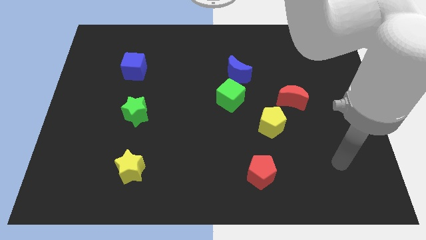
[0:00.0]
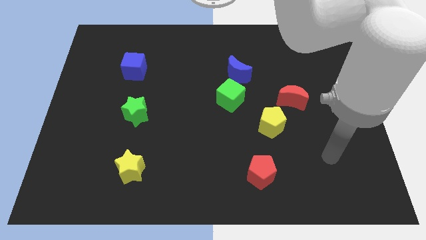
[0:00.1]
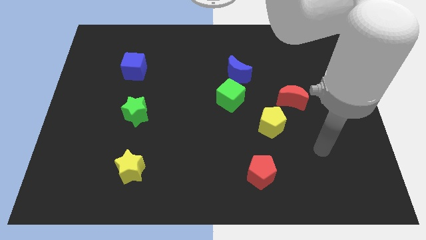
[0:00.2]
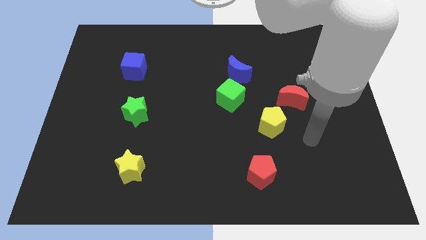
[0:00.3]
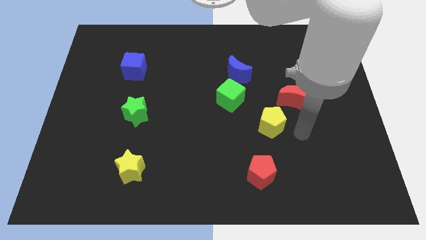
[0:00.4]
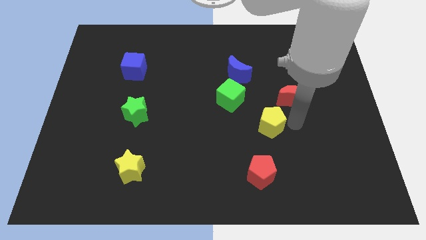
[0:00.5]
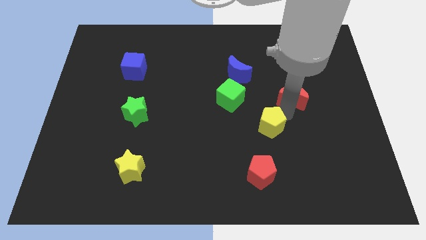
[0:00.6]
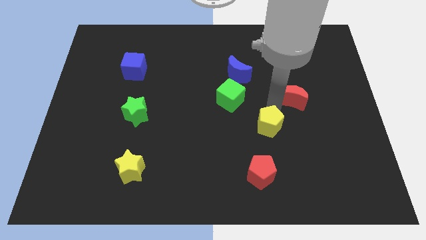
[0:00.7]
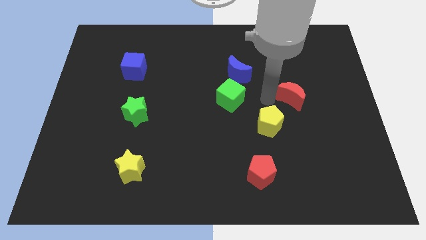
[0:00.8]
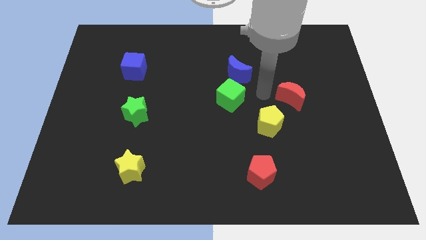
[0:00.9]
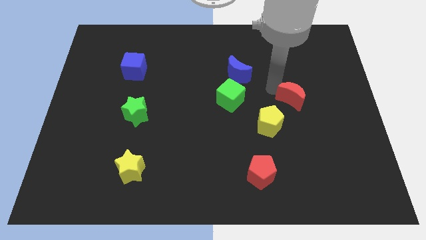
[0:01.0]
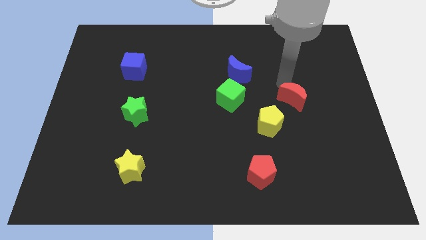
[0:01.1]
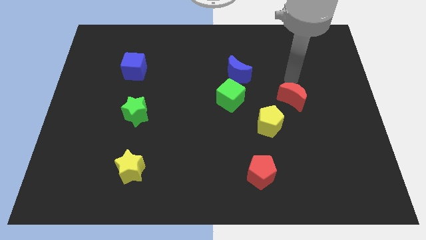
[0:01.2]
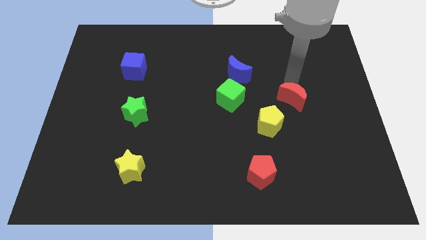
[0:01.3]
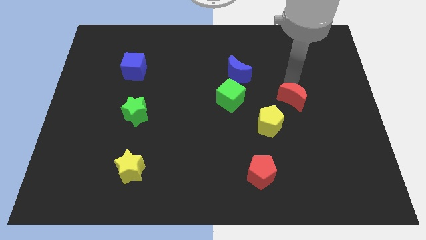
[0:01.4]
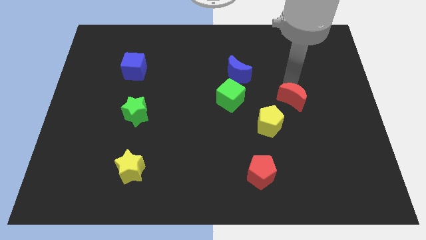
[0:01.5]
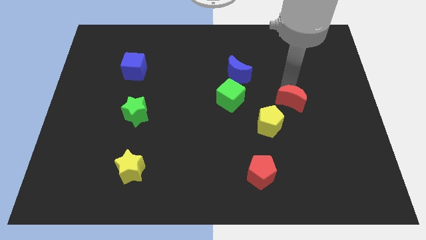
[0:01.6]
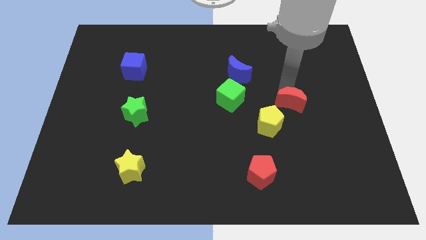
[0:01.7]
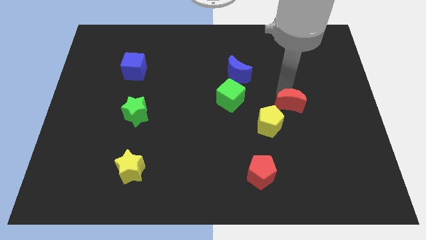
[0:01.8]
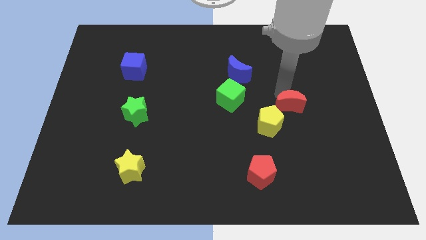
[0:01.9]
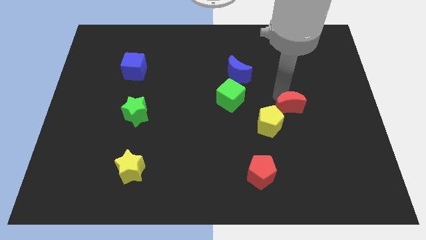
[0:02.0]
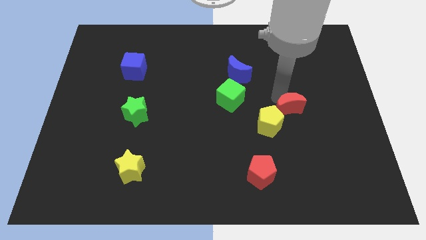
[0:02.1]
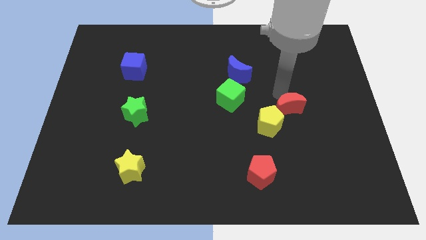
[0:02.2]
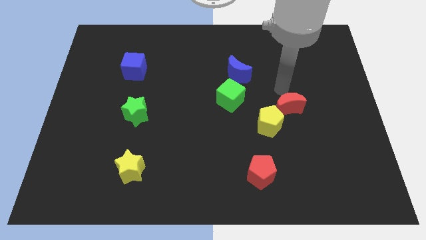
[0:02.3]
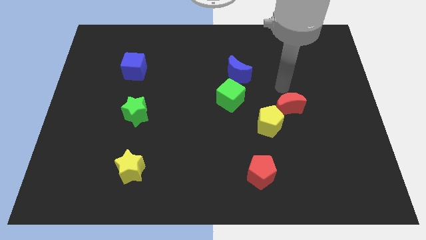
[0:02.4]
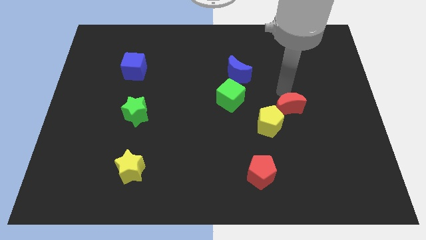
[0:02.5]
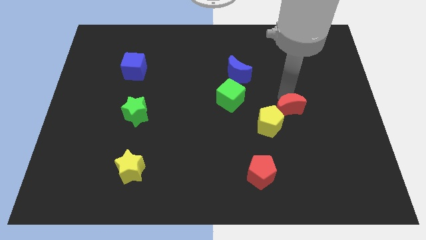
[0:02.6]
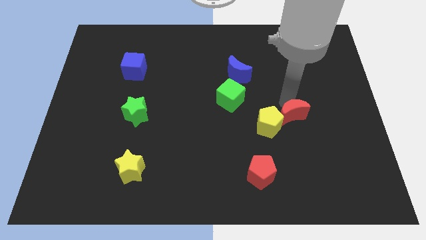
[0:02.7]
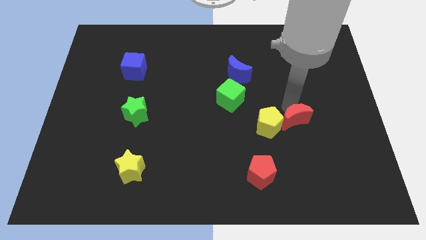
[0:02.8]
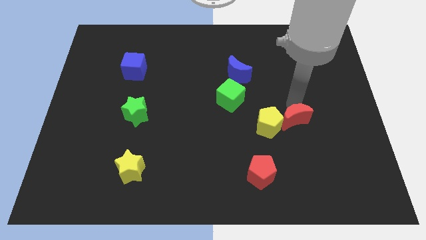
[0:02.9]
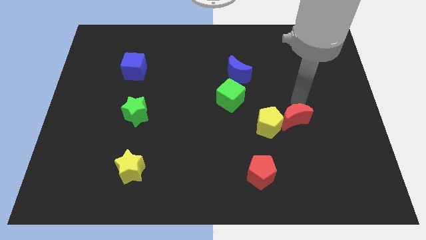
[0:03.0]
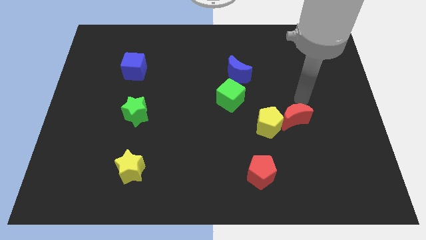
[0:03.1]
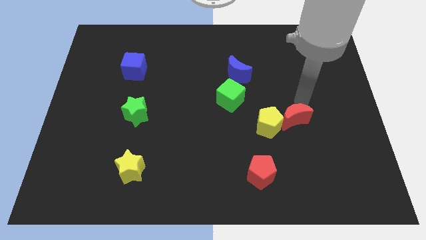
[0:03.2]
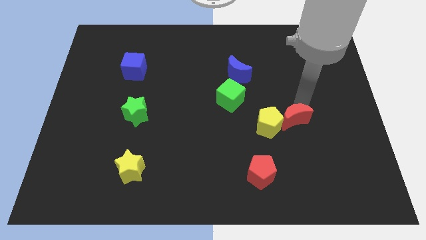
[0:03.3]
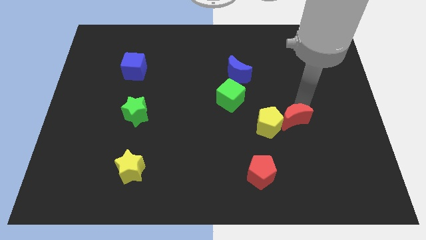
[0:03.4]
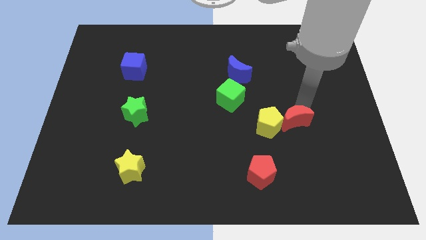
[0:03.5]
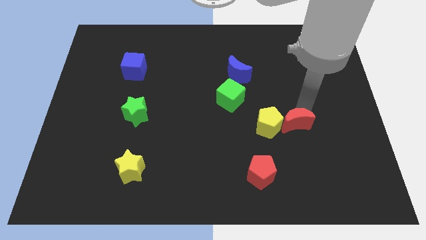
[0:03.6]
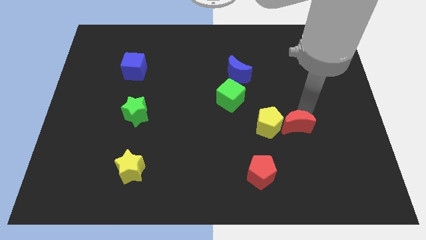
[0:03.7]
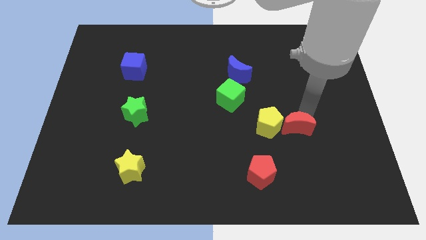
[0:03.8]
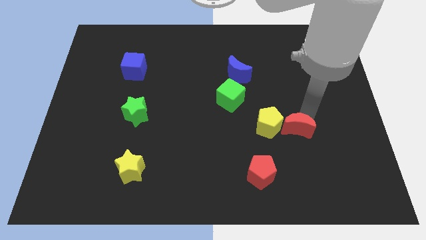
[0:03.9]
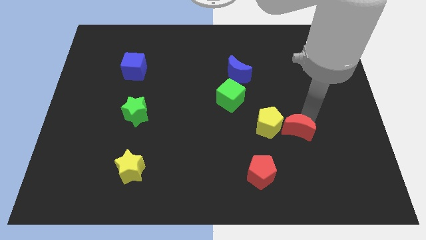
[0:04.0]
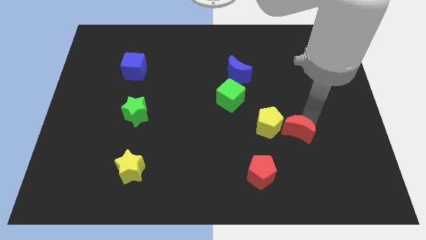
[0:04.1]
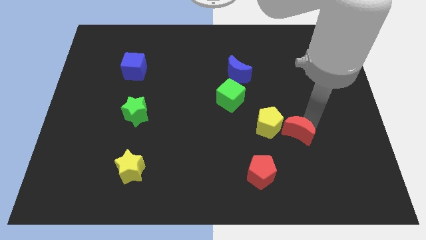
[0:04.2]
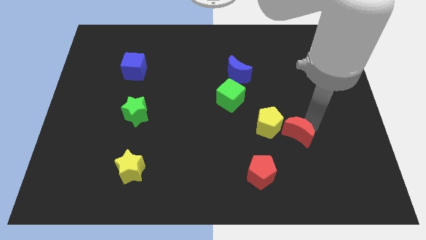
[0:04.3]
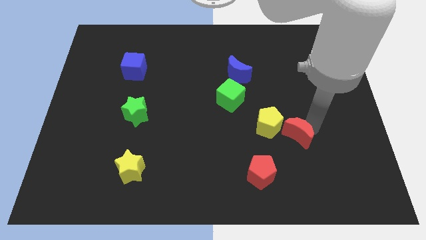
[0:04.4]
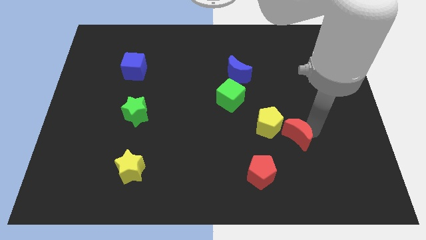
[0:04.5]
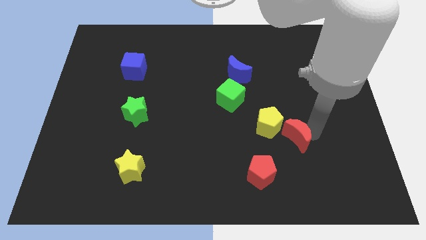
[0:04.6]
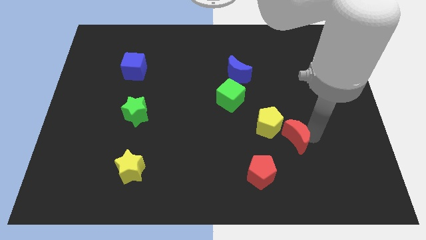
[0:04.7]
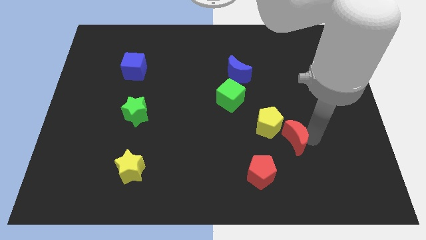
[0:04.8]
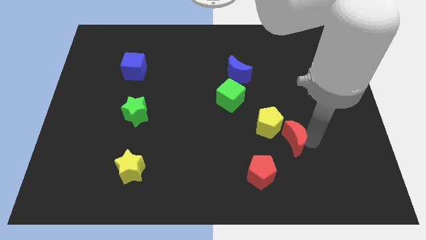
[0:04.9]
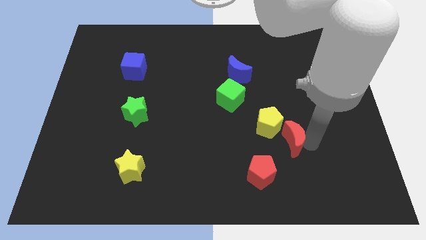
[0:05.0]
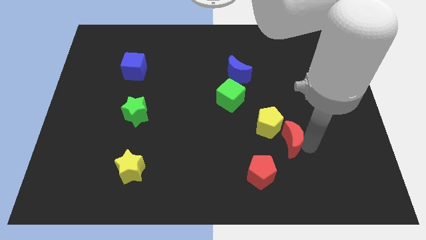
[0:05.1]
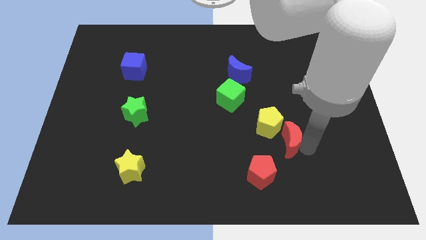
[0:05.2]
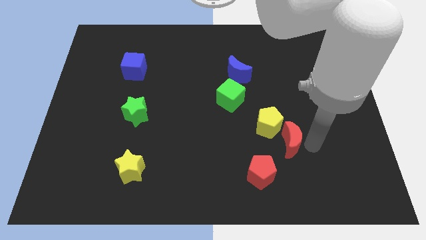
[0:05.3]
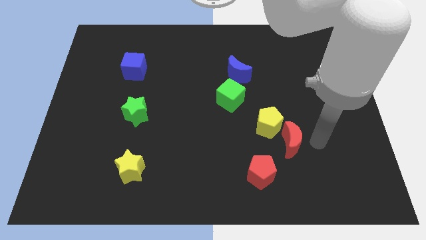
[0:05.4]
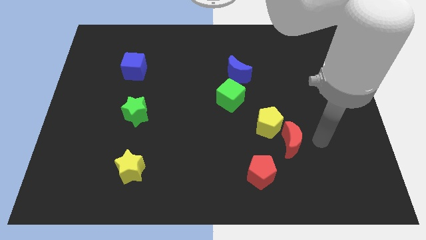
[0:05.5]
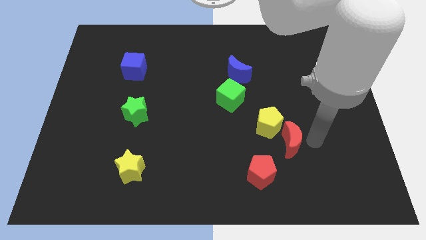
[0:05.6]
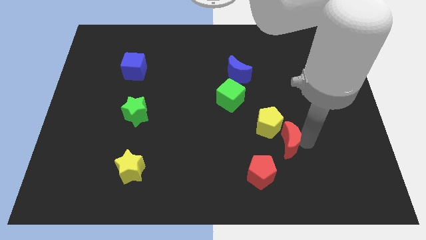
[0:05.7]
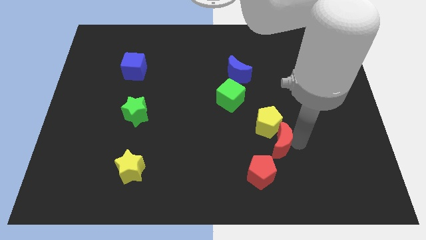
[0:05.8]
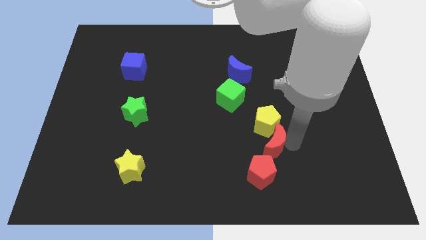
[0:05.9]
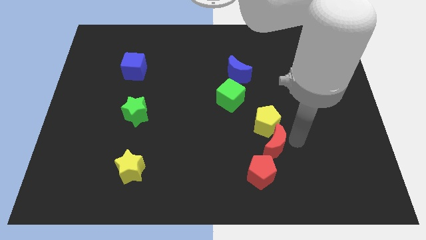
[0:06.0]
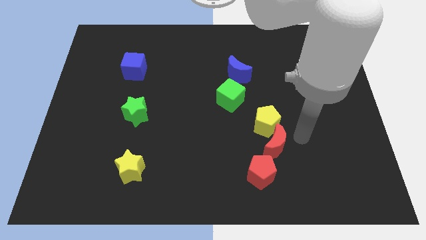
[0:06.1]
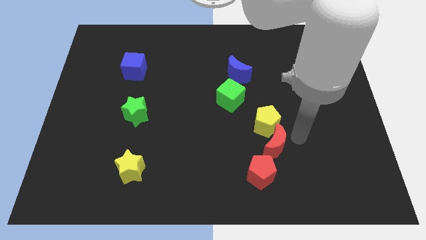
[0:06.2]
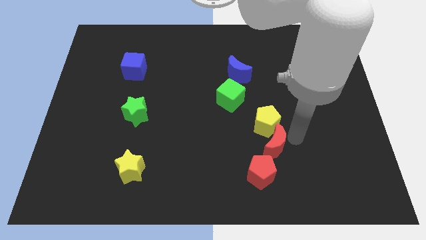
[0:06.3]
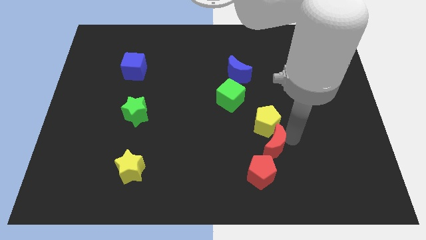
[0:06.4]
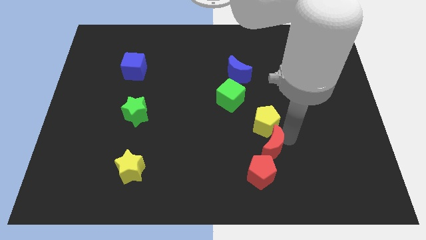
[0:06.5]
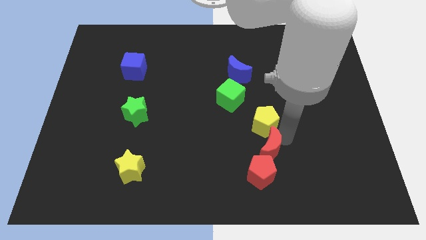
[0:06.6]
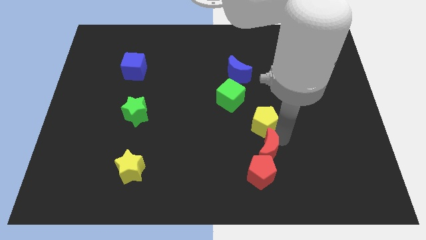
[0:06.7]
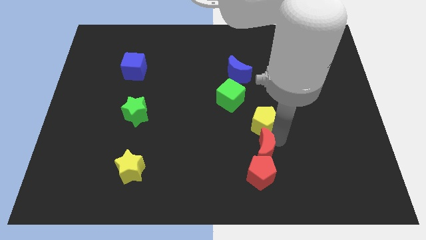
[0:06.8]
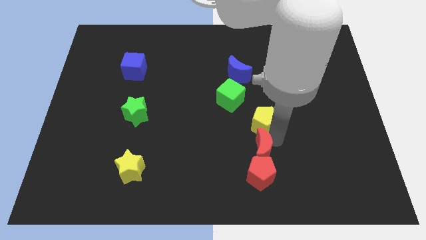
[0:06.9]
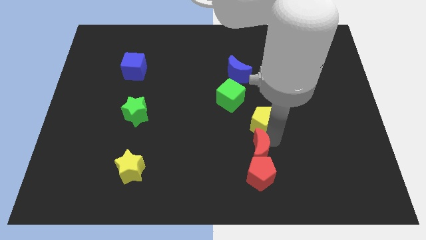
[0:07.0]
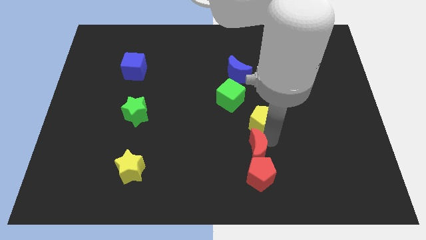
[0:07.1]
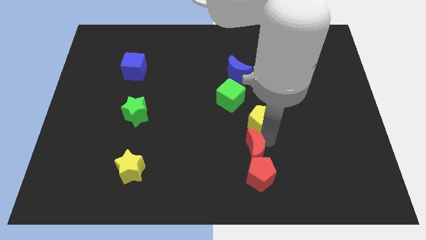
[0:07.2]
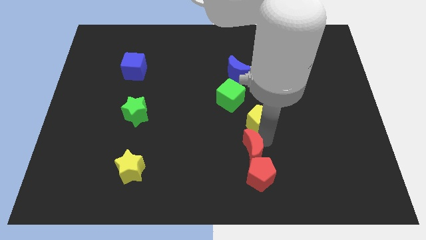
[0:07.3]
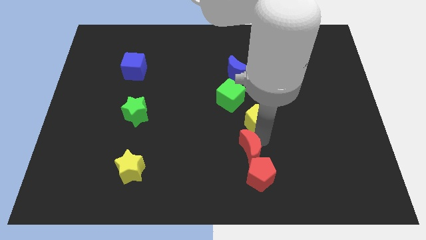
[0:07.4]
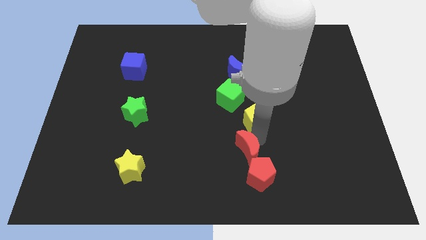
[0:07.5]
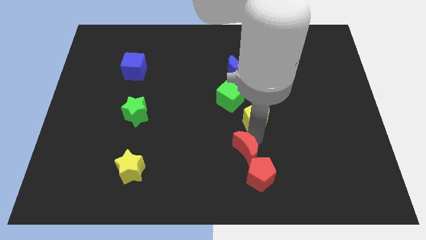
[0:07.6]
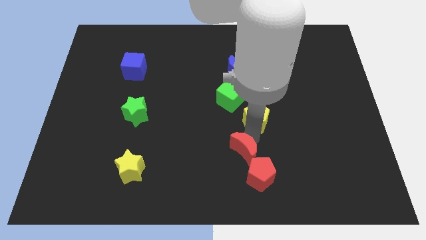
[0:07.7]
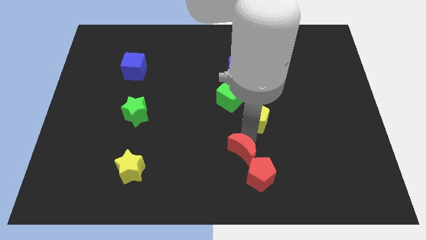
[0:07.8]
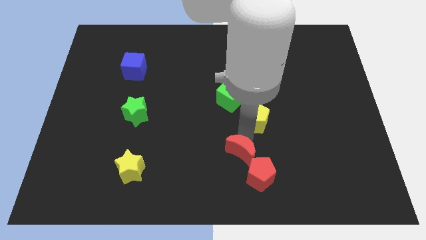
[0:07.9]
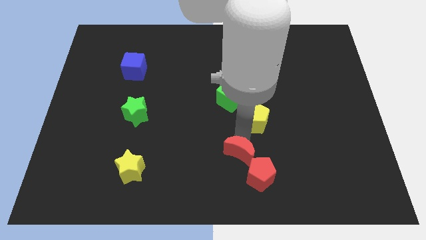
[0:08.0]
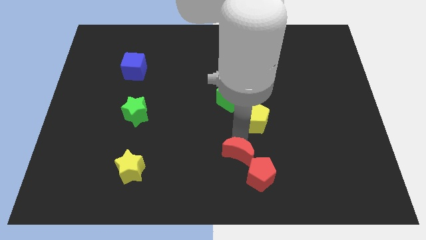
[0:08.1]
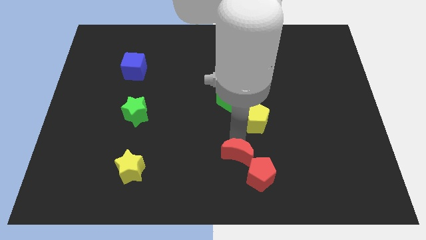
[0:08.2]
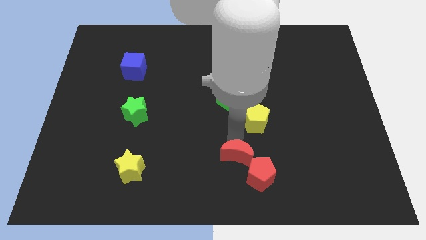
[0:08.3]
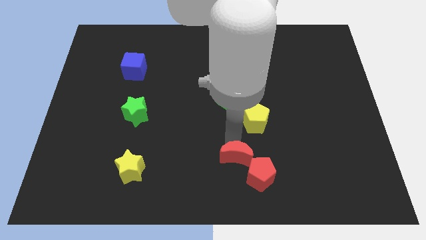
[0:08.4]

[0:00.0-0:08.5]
push the red moon to the bottom side
